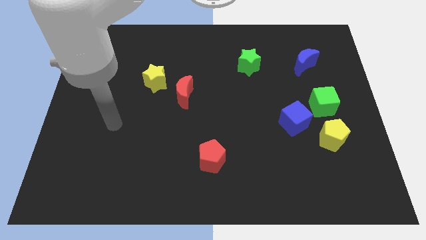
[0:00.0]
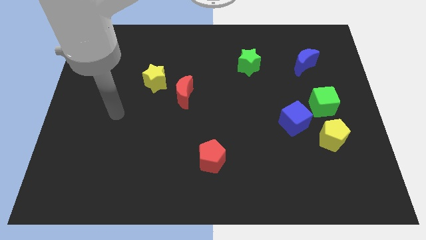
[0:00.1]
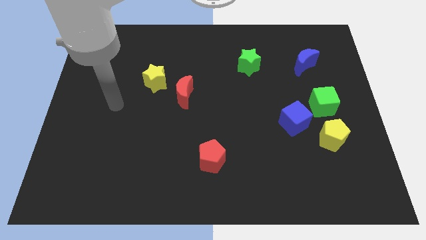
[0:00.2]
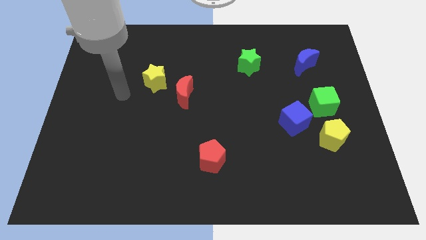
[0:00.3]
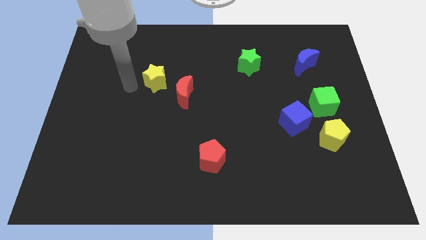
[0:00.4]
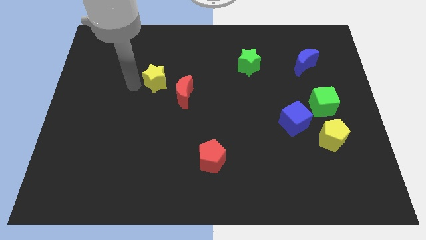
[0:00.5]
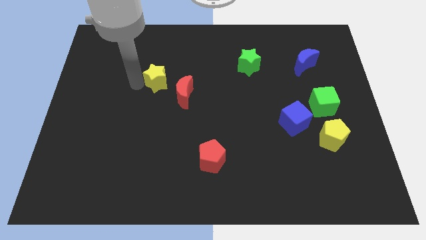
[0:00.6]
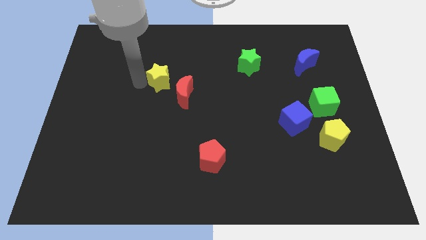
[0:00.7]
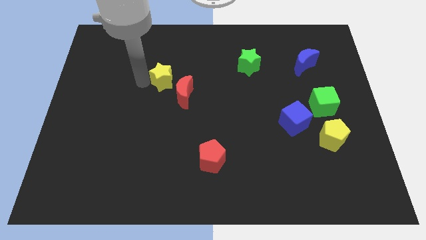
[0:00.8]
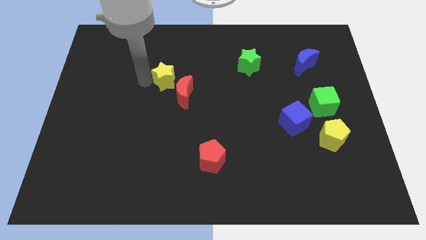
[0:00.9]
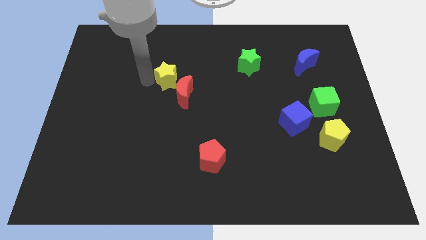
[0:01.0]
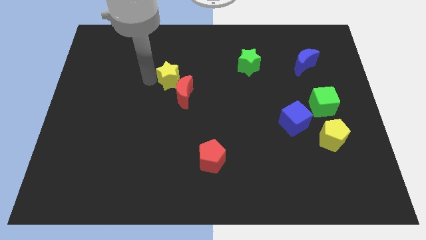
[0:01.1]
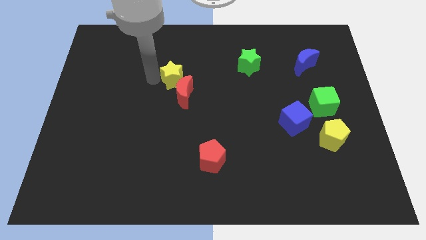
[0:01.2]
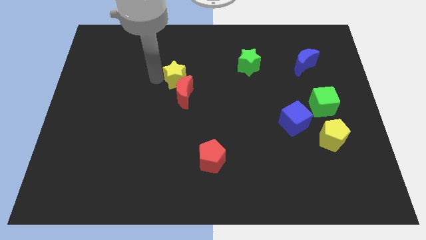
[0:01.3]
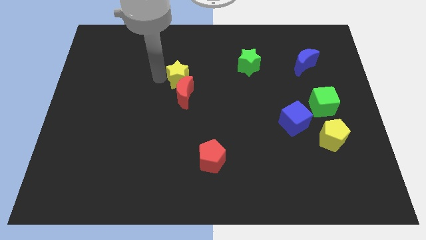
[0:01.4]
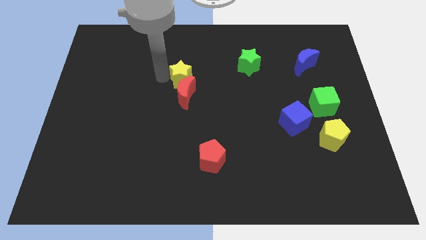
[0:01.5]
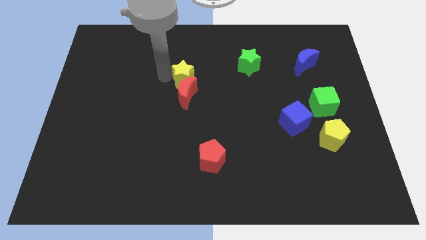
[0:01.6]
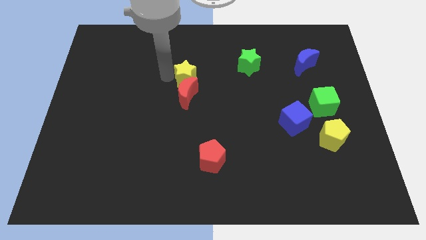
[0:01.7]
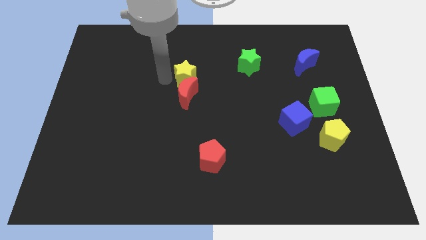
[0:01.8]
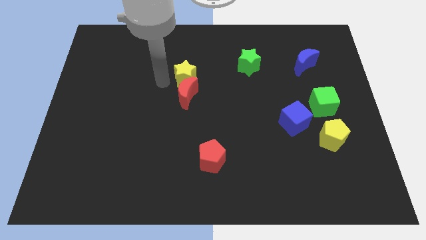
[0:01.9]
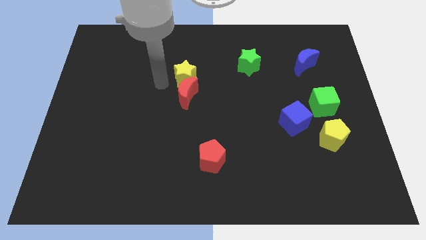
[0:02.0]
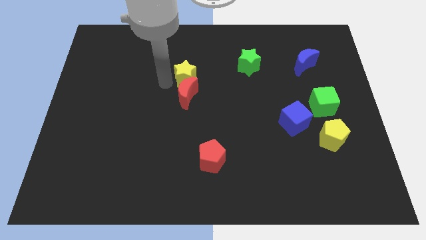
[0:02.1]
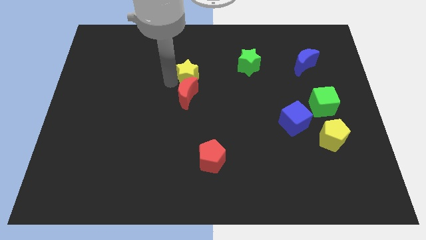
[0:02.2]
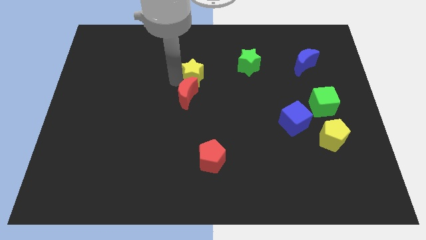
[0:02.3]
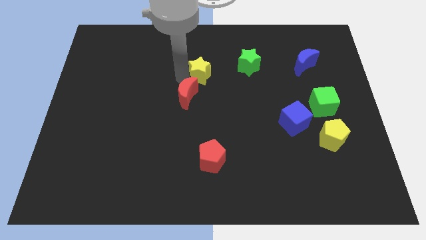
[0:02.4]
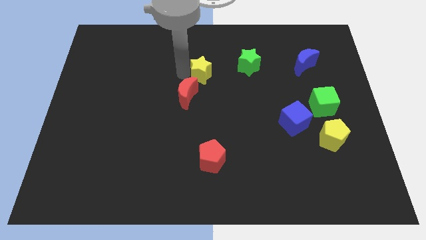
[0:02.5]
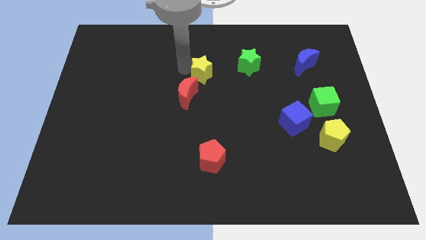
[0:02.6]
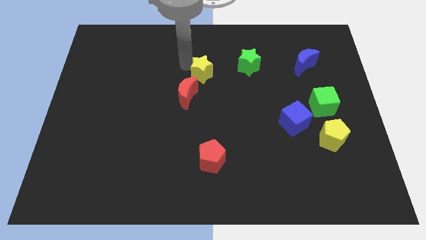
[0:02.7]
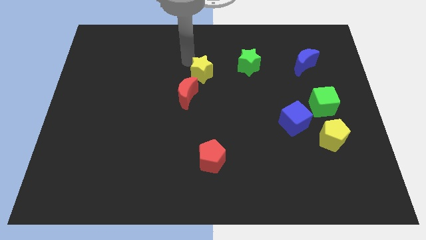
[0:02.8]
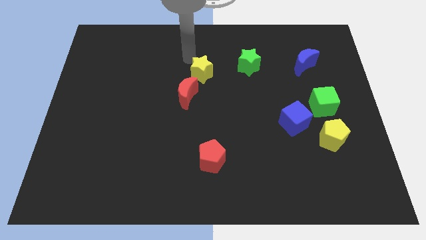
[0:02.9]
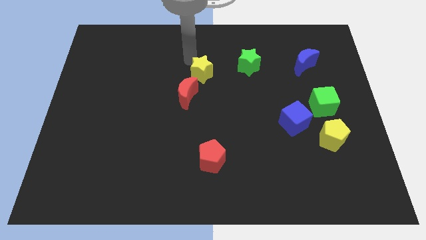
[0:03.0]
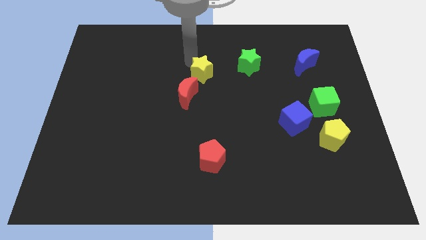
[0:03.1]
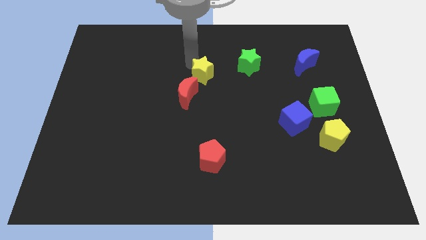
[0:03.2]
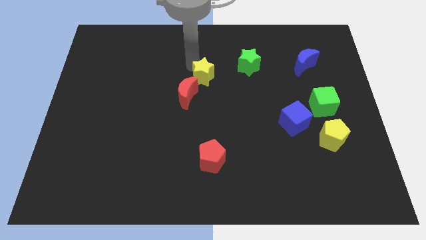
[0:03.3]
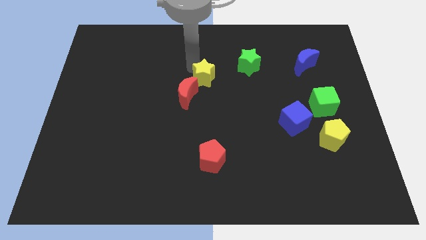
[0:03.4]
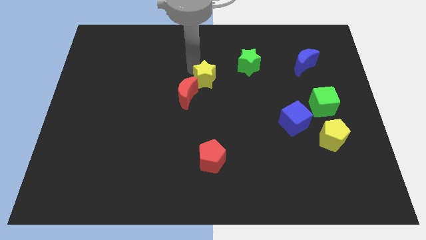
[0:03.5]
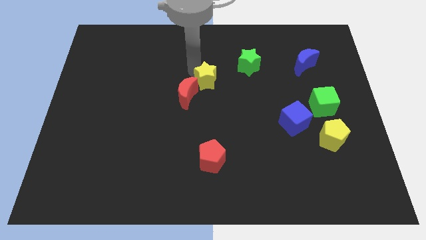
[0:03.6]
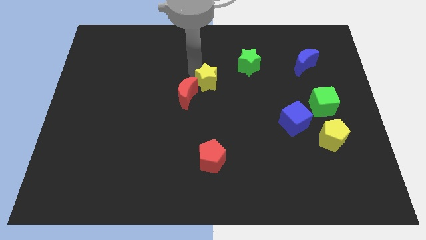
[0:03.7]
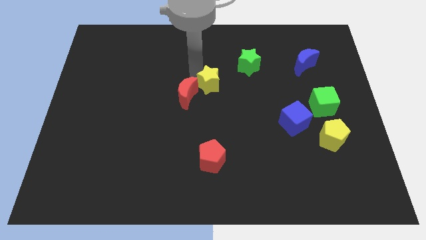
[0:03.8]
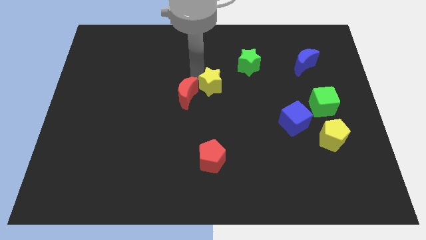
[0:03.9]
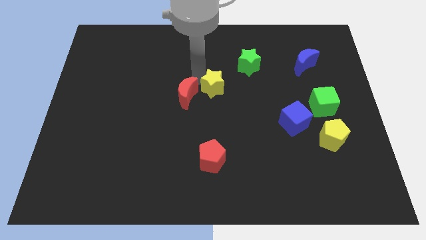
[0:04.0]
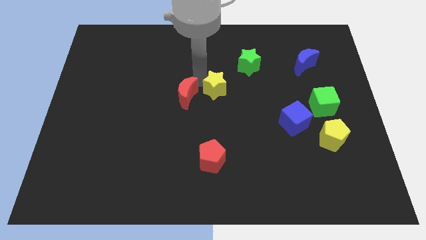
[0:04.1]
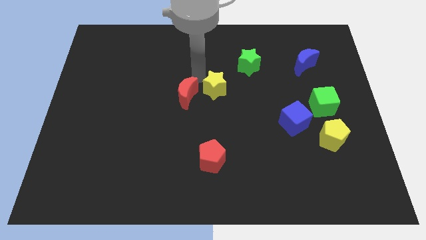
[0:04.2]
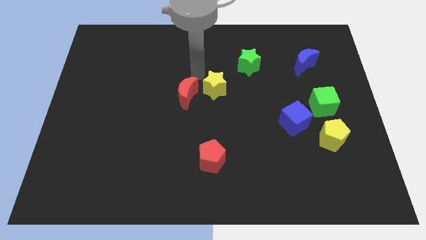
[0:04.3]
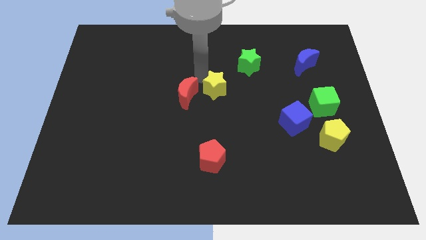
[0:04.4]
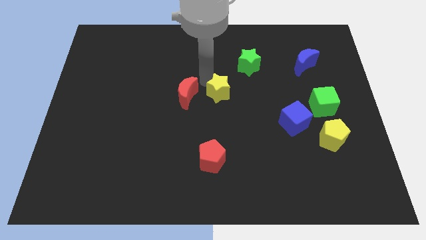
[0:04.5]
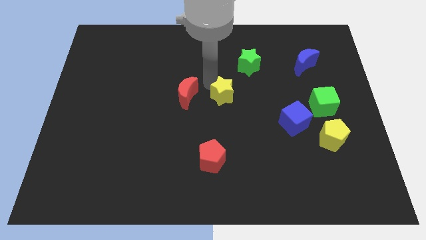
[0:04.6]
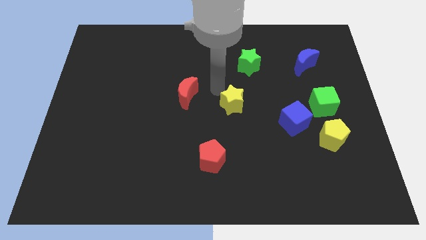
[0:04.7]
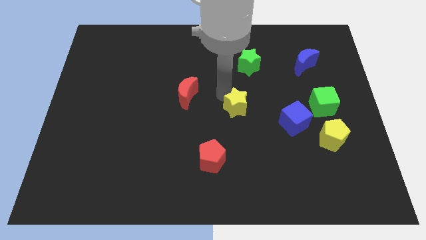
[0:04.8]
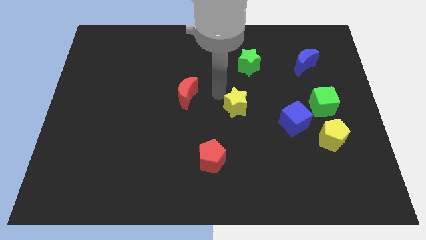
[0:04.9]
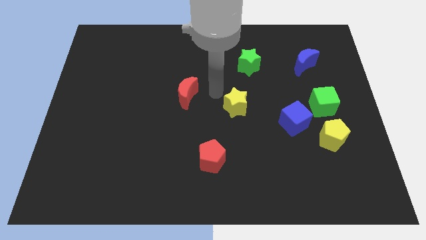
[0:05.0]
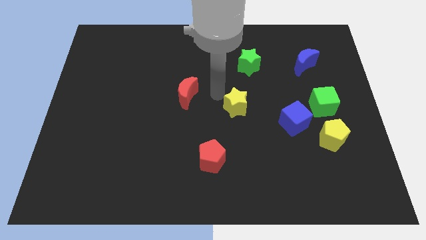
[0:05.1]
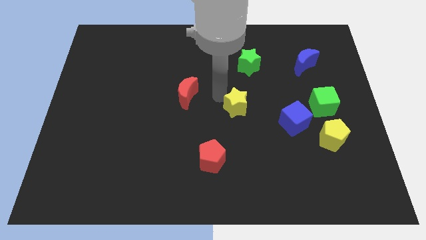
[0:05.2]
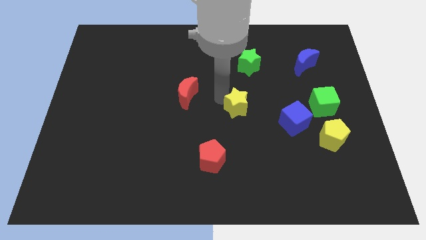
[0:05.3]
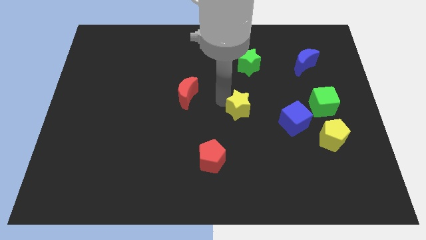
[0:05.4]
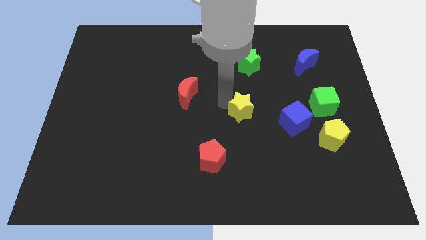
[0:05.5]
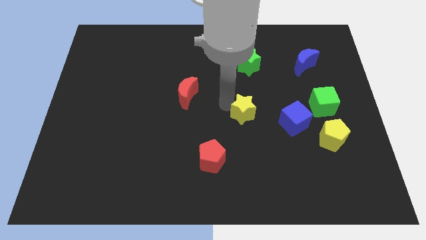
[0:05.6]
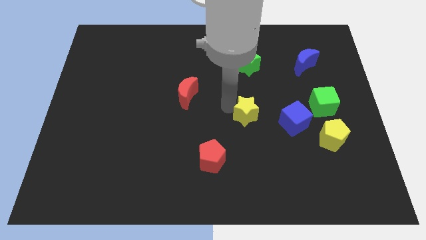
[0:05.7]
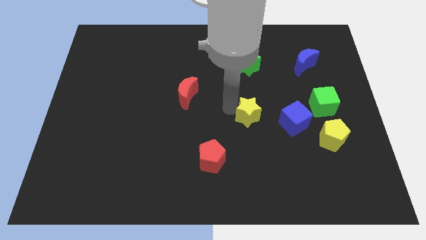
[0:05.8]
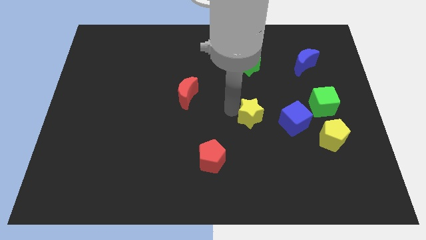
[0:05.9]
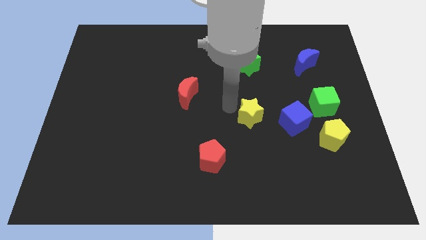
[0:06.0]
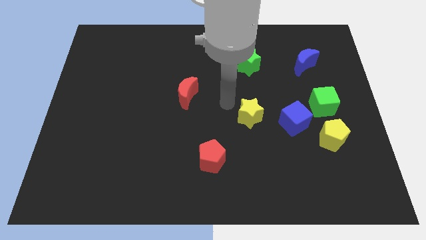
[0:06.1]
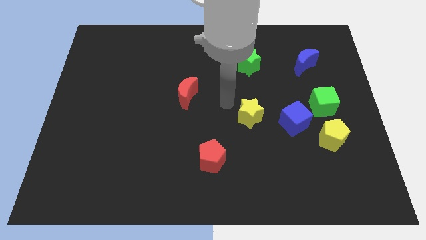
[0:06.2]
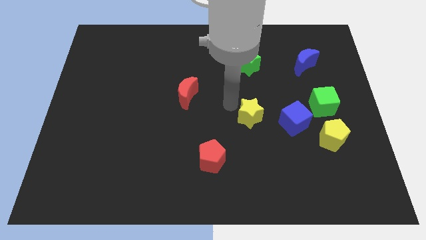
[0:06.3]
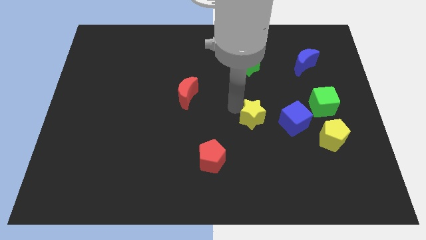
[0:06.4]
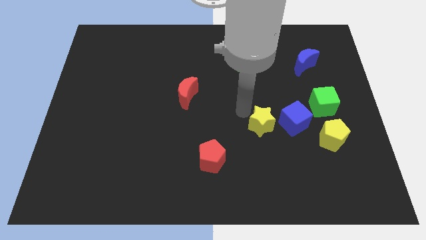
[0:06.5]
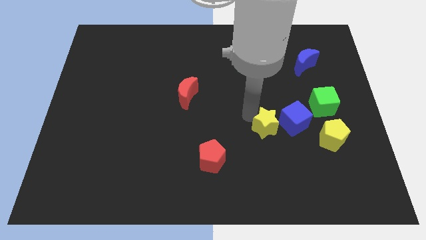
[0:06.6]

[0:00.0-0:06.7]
push the yellow star to the left side of the yellow pentagon

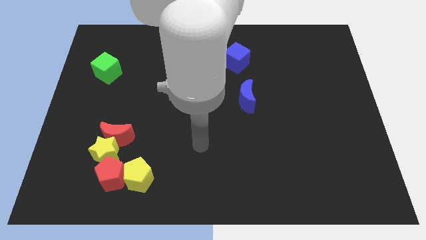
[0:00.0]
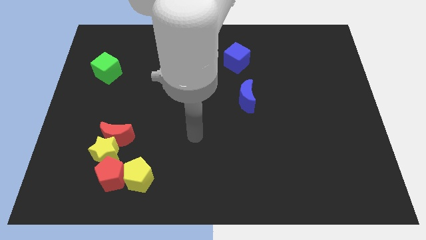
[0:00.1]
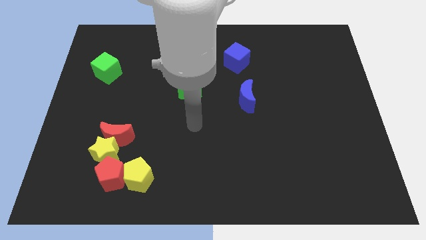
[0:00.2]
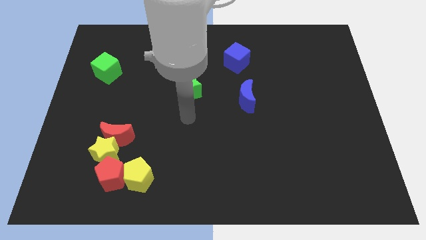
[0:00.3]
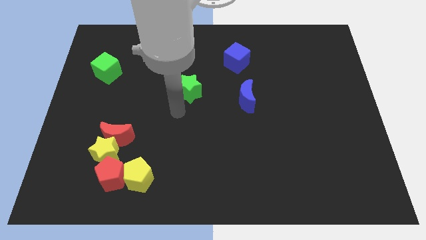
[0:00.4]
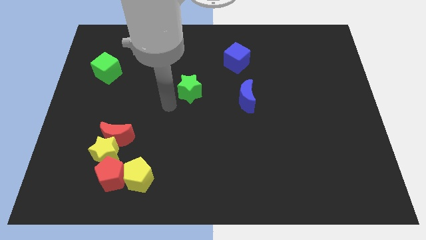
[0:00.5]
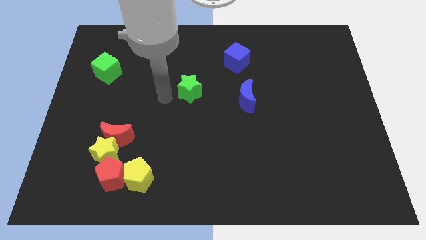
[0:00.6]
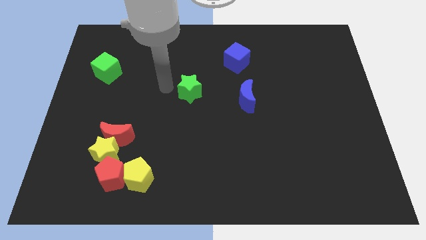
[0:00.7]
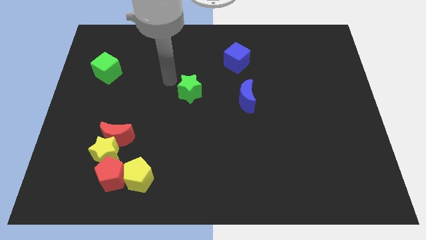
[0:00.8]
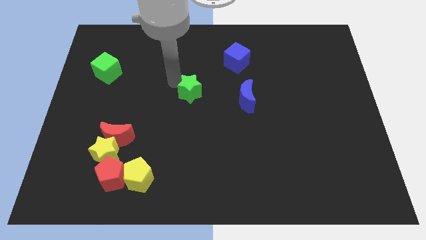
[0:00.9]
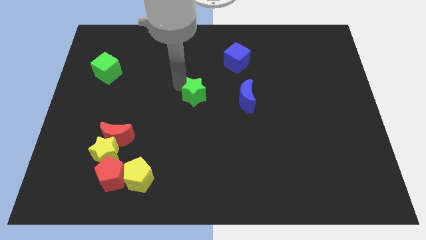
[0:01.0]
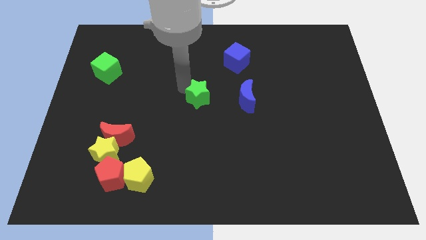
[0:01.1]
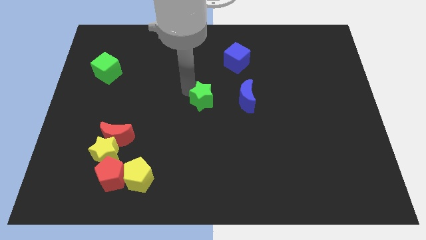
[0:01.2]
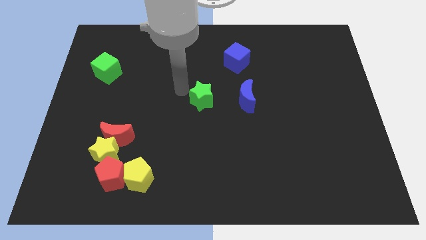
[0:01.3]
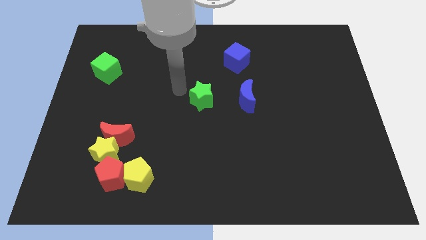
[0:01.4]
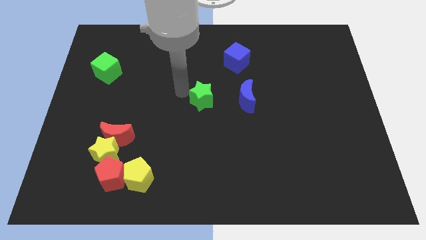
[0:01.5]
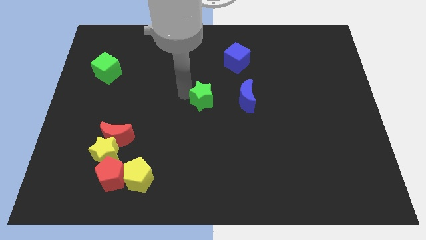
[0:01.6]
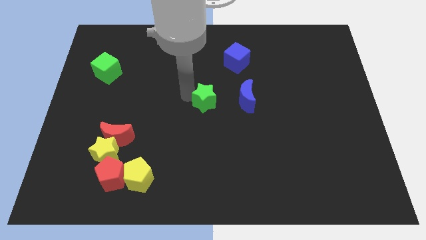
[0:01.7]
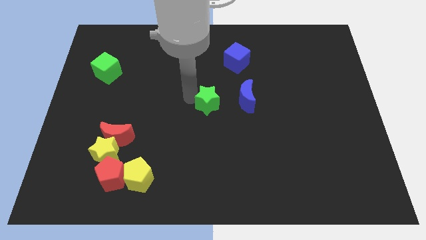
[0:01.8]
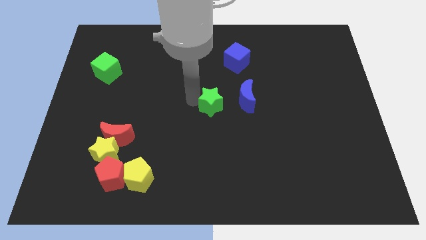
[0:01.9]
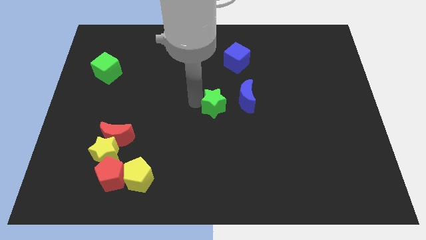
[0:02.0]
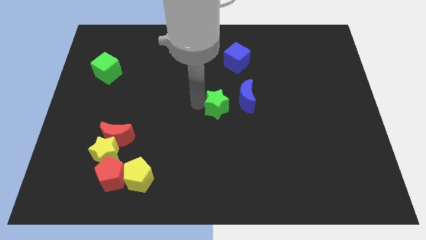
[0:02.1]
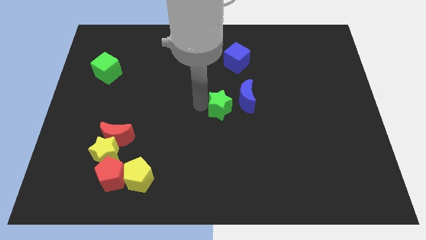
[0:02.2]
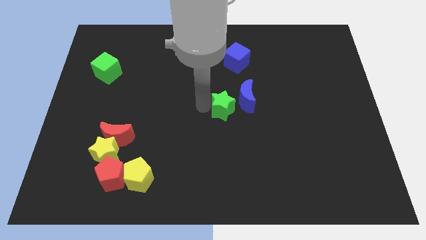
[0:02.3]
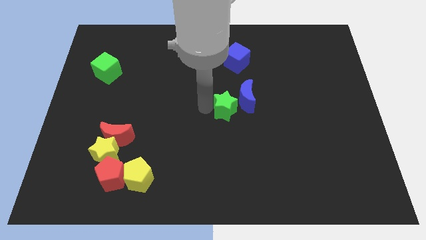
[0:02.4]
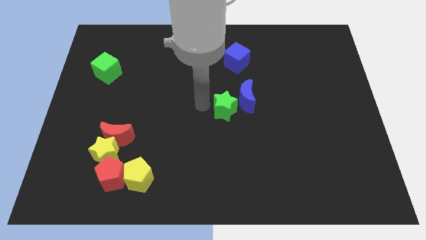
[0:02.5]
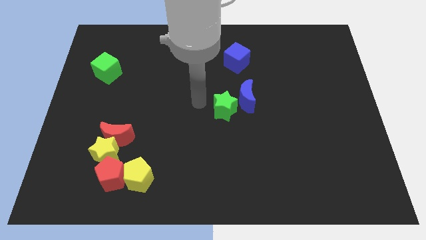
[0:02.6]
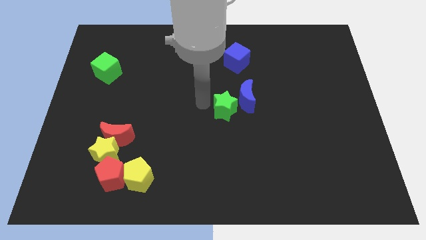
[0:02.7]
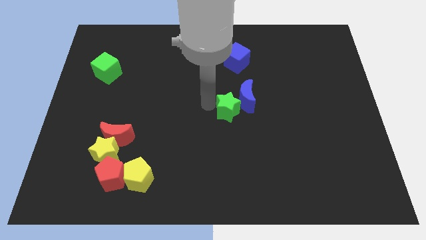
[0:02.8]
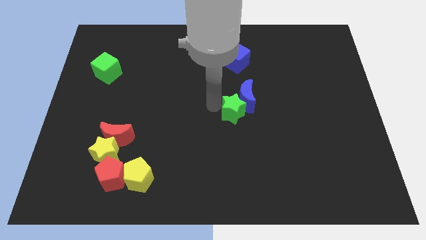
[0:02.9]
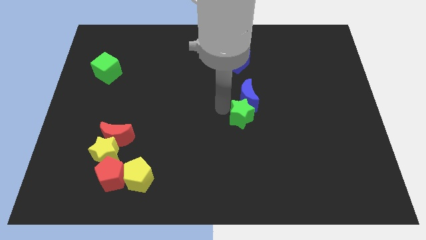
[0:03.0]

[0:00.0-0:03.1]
move the green star to the bottom right side of the blue moon
